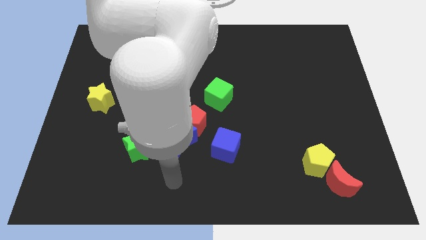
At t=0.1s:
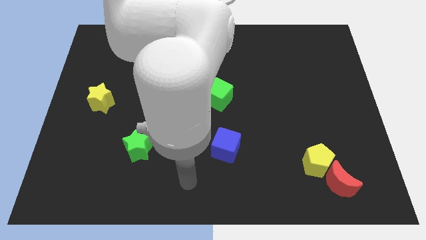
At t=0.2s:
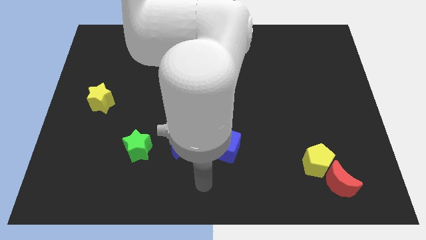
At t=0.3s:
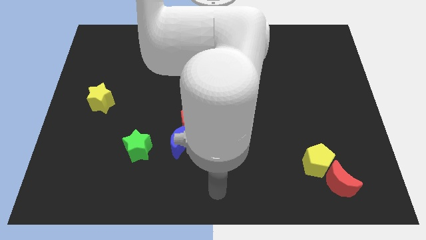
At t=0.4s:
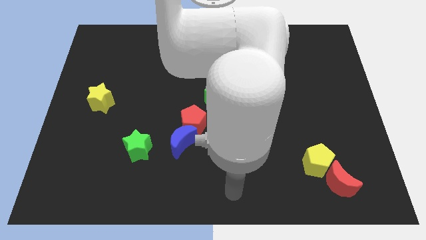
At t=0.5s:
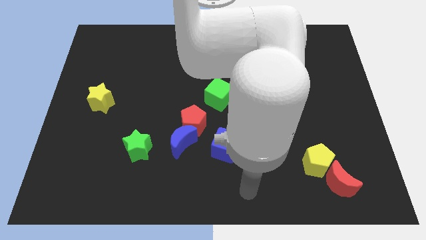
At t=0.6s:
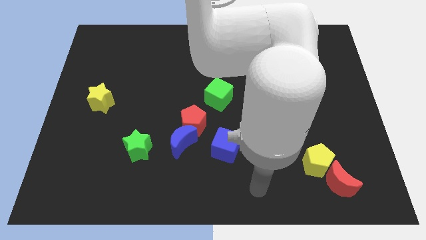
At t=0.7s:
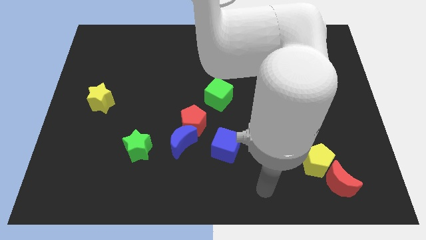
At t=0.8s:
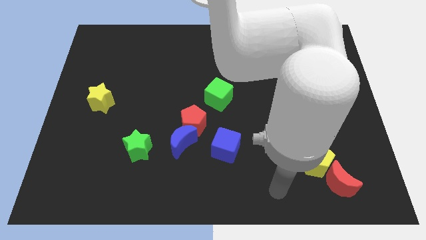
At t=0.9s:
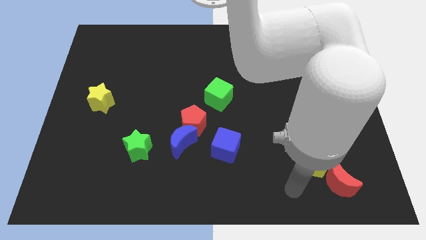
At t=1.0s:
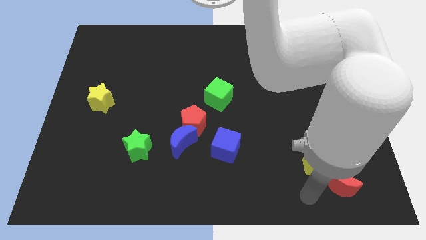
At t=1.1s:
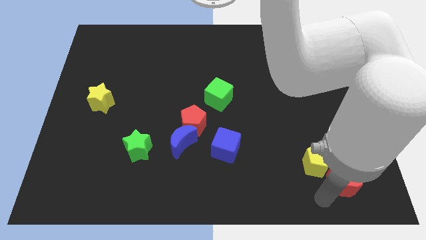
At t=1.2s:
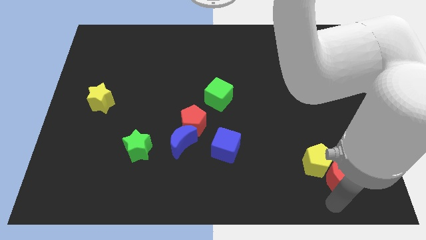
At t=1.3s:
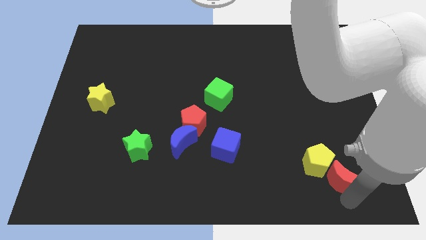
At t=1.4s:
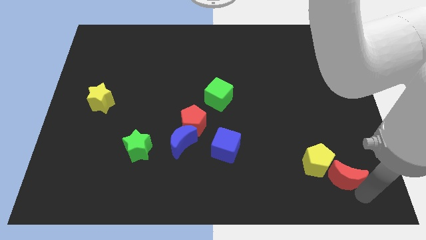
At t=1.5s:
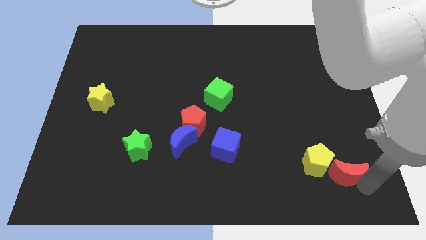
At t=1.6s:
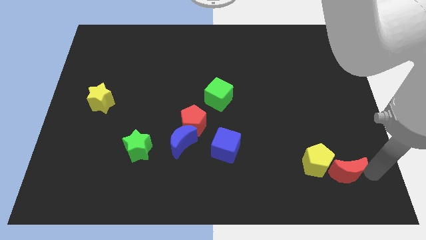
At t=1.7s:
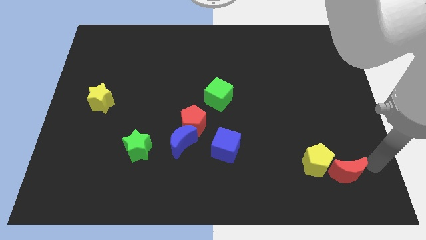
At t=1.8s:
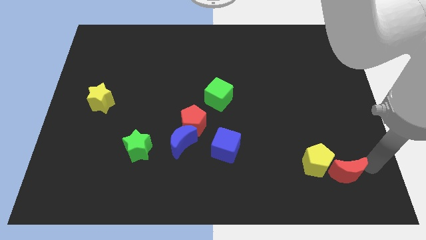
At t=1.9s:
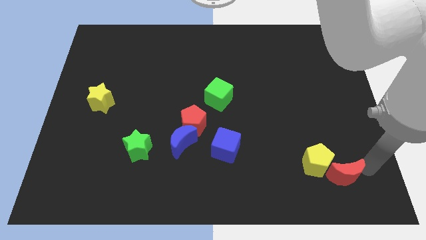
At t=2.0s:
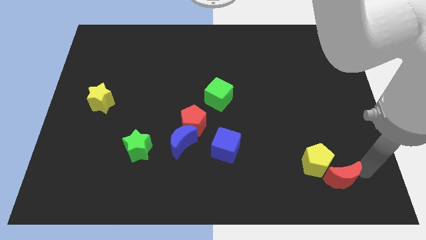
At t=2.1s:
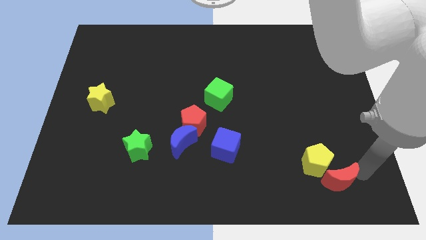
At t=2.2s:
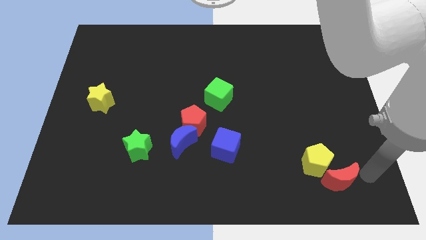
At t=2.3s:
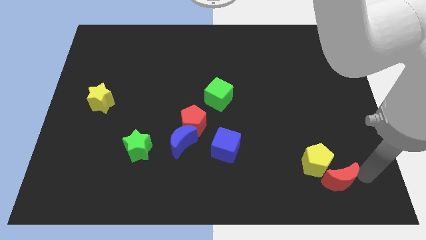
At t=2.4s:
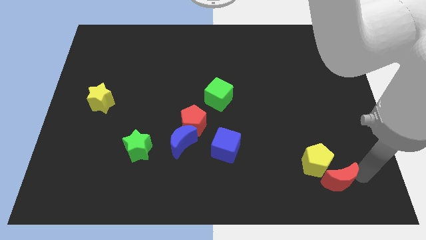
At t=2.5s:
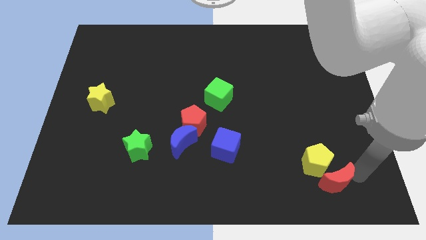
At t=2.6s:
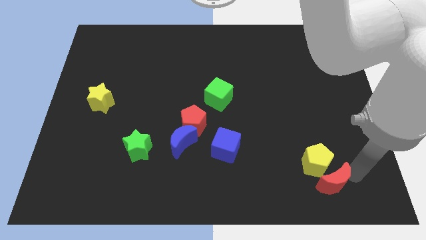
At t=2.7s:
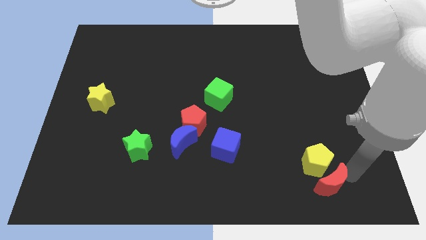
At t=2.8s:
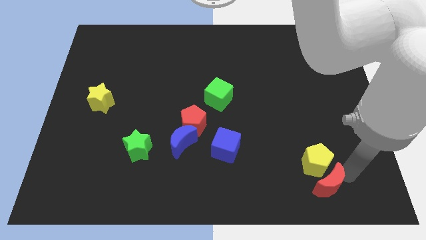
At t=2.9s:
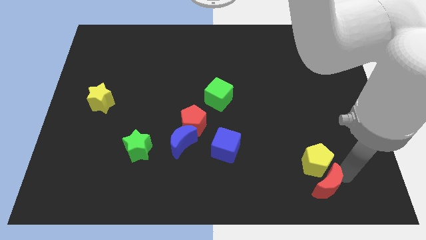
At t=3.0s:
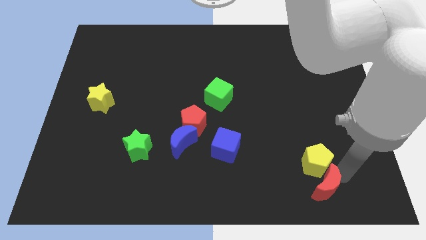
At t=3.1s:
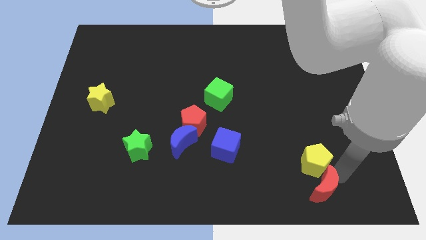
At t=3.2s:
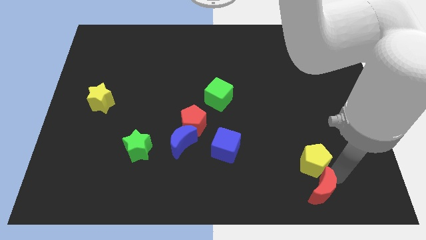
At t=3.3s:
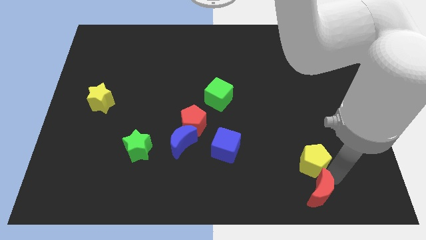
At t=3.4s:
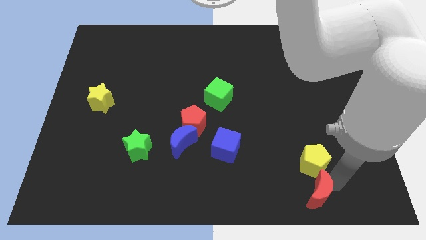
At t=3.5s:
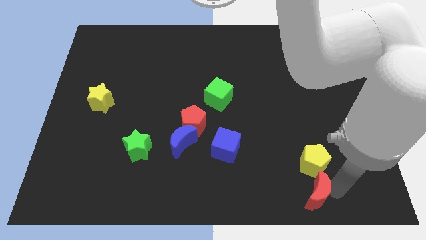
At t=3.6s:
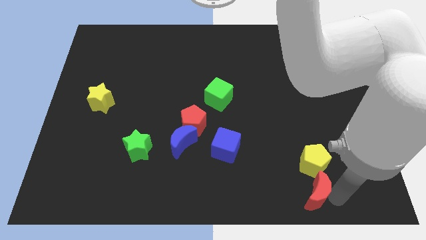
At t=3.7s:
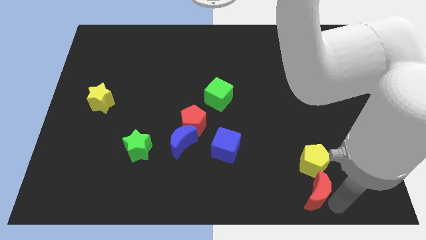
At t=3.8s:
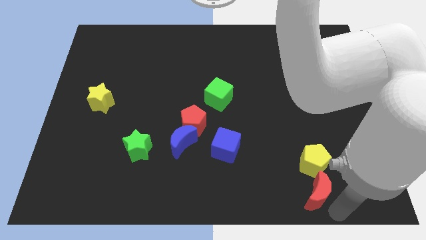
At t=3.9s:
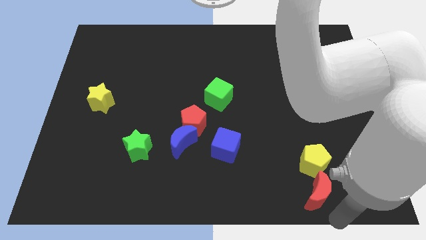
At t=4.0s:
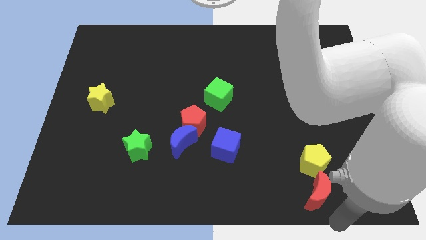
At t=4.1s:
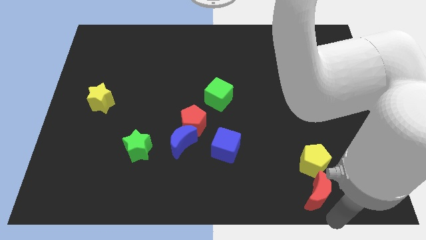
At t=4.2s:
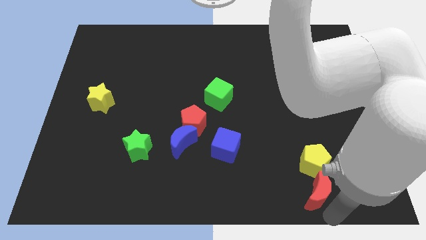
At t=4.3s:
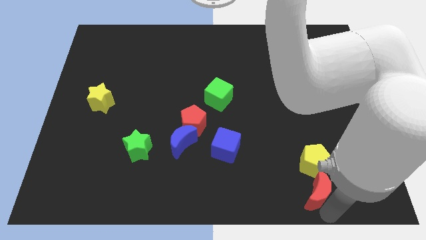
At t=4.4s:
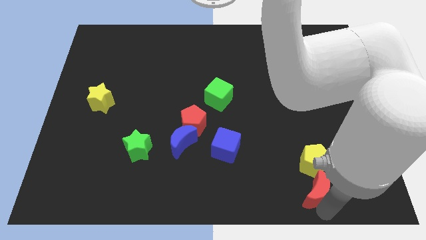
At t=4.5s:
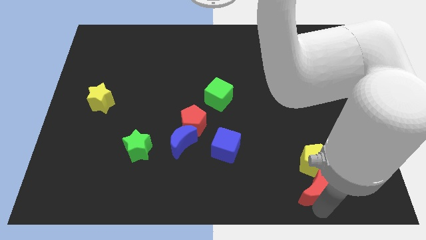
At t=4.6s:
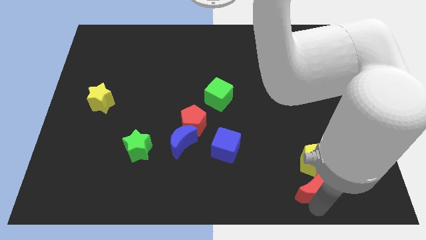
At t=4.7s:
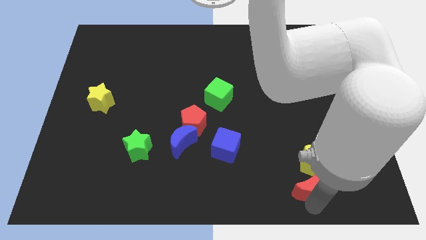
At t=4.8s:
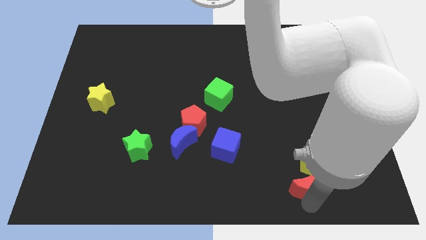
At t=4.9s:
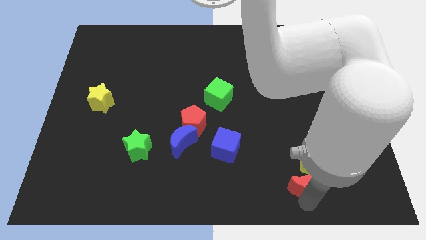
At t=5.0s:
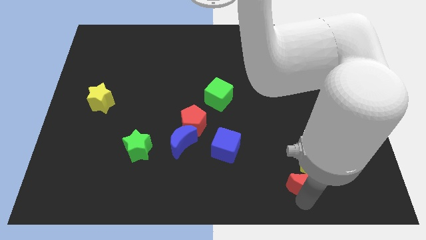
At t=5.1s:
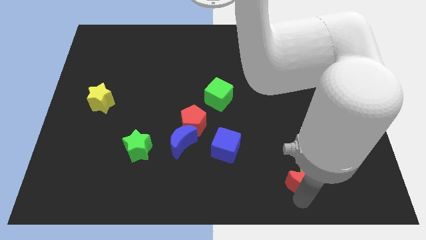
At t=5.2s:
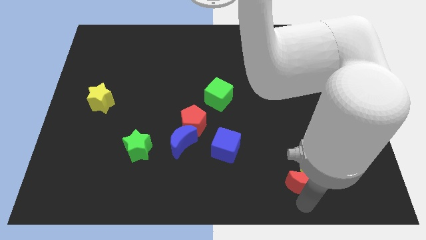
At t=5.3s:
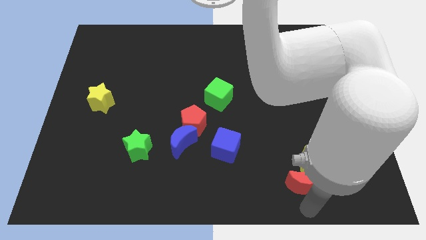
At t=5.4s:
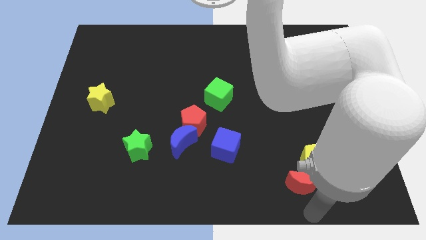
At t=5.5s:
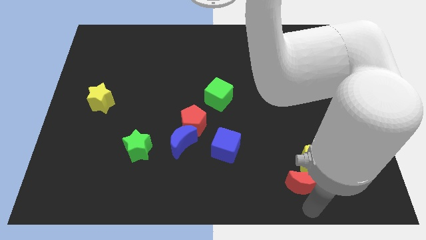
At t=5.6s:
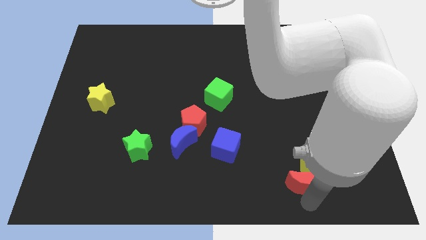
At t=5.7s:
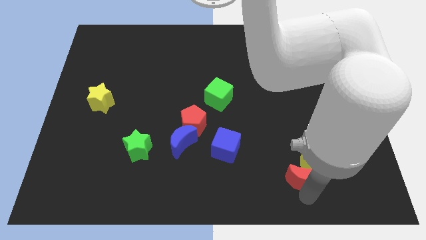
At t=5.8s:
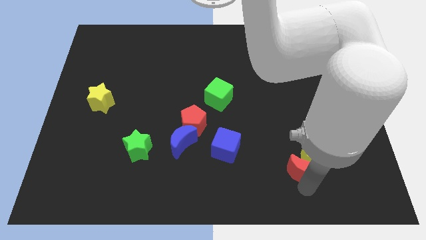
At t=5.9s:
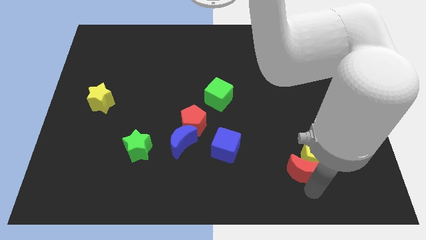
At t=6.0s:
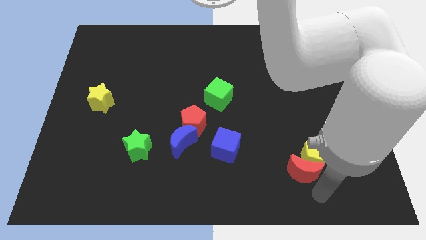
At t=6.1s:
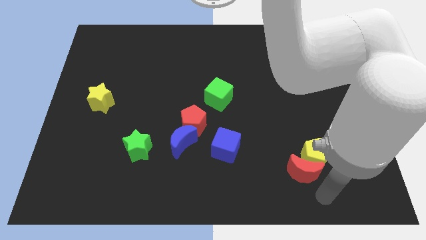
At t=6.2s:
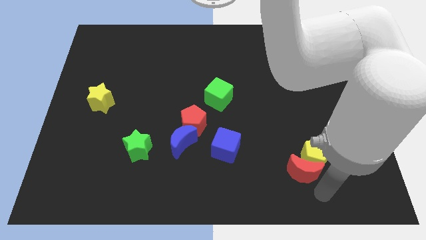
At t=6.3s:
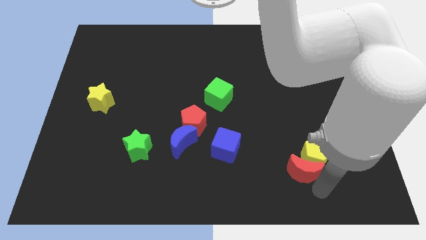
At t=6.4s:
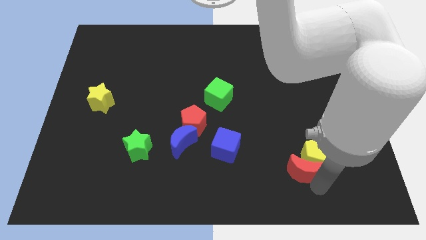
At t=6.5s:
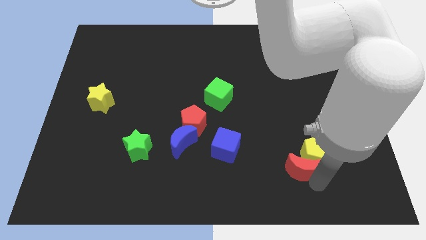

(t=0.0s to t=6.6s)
slide the red moon up and left a bit

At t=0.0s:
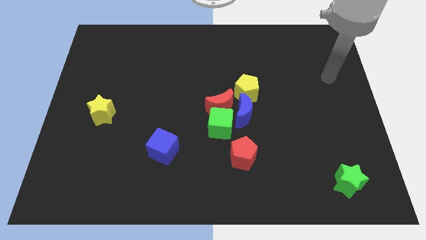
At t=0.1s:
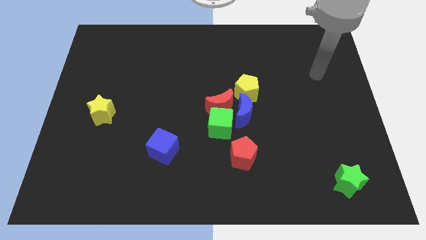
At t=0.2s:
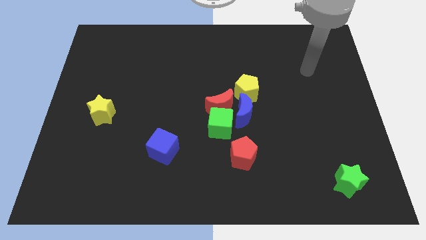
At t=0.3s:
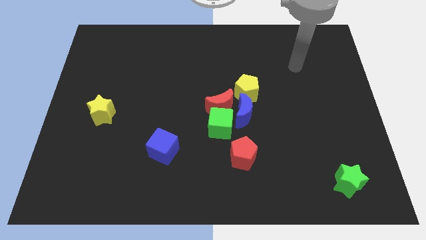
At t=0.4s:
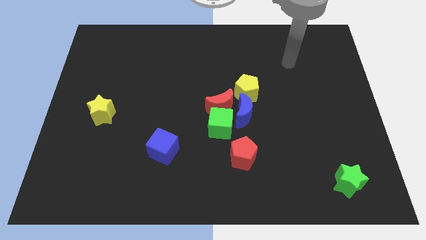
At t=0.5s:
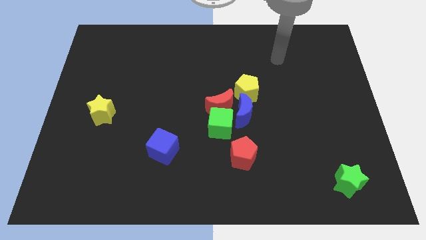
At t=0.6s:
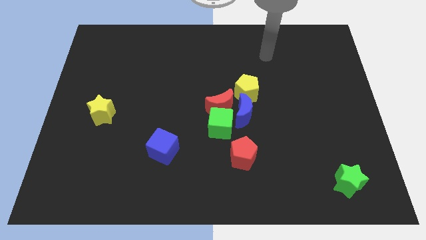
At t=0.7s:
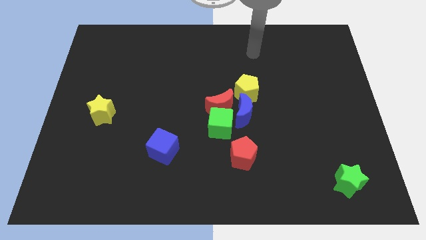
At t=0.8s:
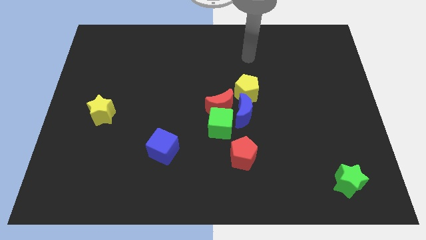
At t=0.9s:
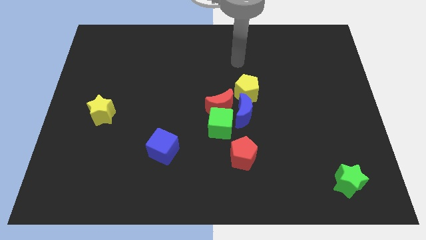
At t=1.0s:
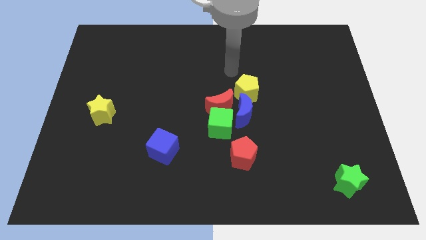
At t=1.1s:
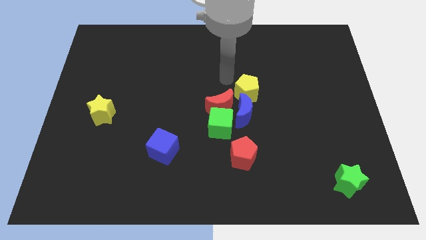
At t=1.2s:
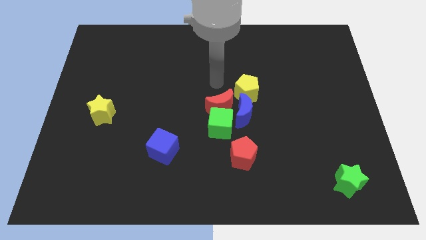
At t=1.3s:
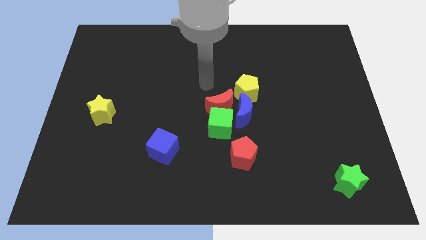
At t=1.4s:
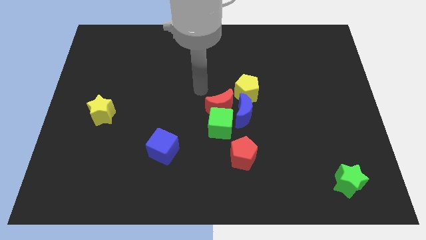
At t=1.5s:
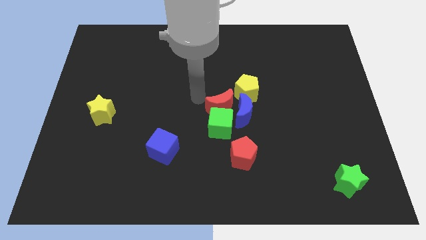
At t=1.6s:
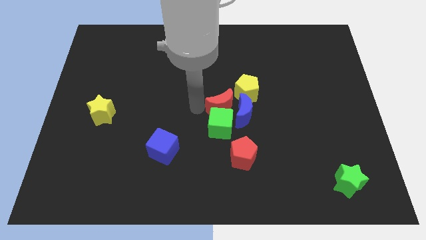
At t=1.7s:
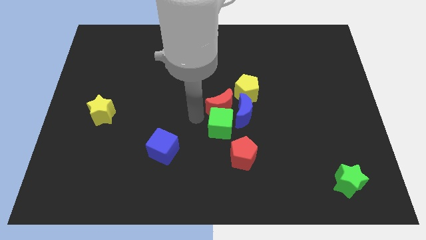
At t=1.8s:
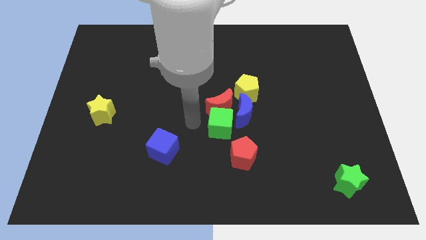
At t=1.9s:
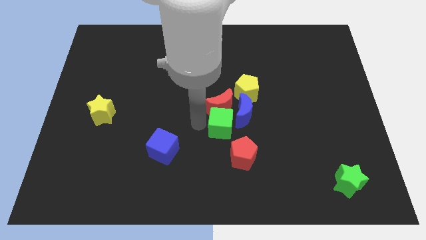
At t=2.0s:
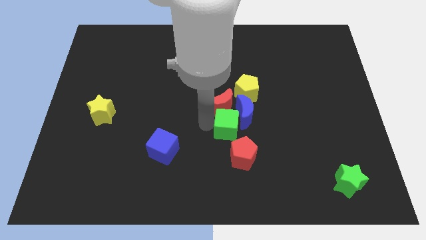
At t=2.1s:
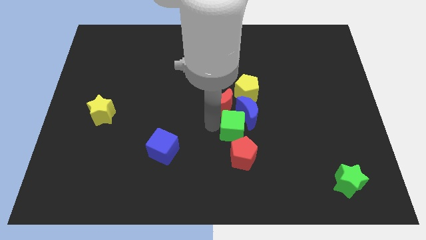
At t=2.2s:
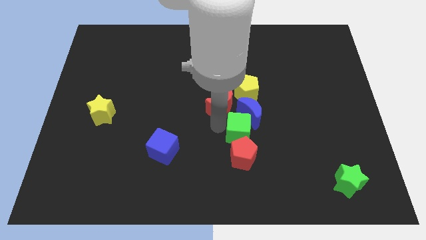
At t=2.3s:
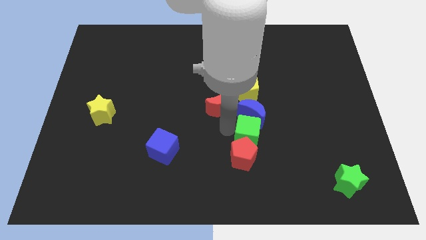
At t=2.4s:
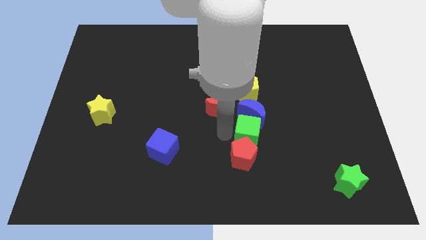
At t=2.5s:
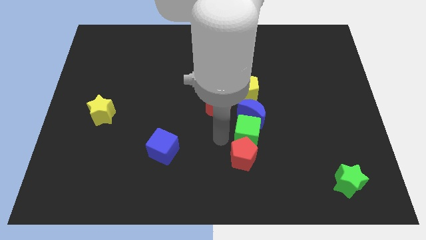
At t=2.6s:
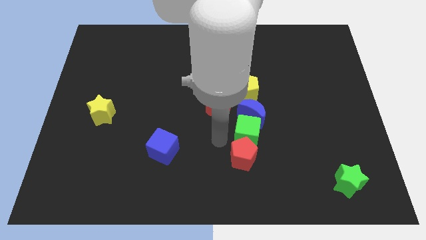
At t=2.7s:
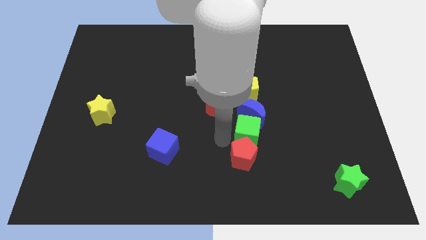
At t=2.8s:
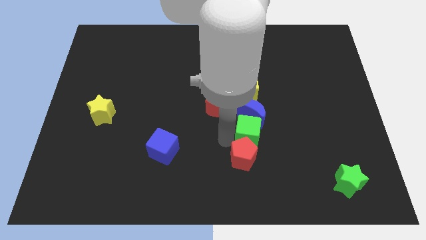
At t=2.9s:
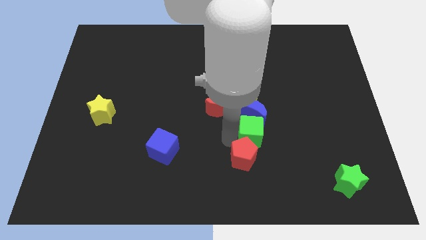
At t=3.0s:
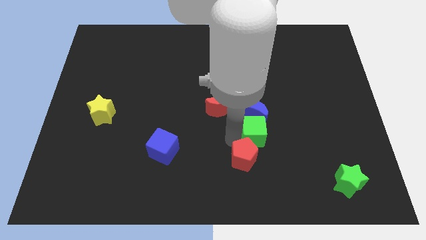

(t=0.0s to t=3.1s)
slide the green cube a little to the right
